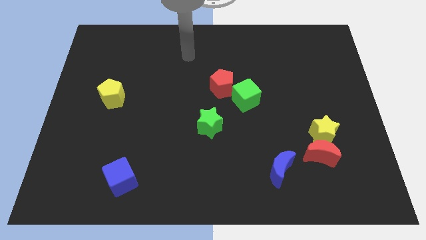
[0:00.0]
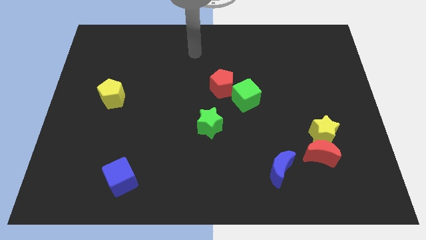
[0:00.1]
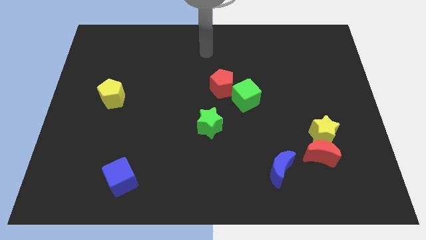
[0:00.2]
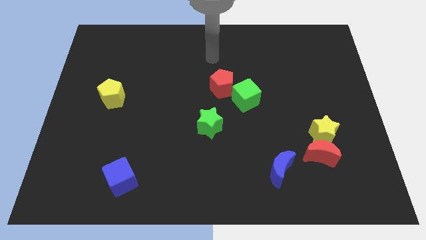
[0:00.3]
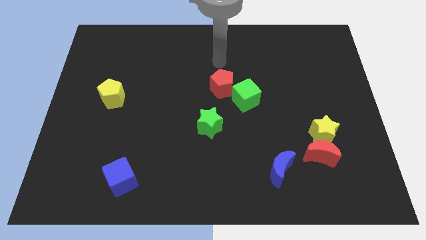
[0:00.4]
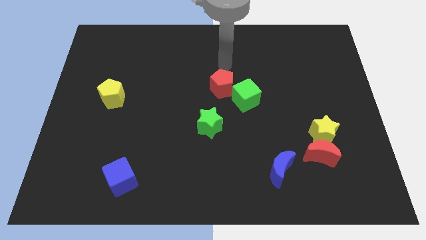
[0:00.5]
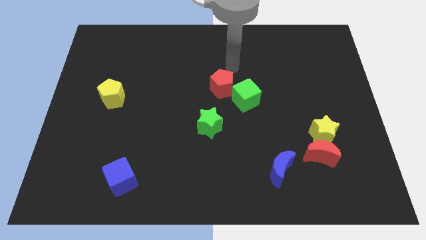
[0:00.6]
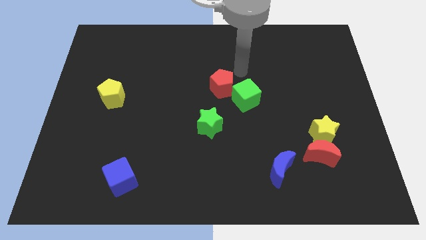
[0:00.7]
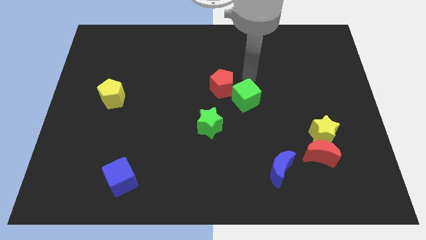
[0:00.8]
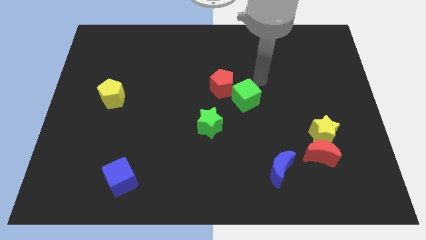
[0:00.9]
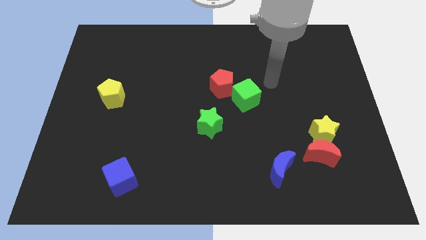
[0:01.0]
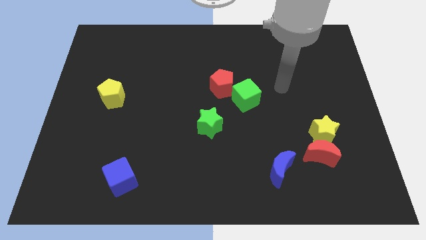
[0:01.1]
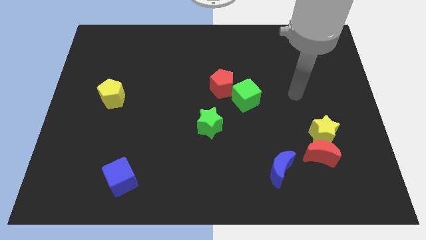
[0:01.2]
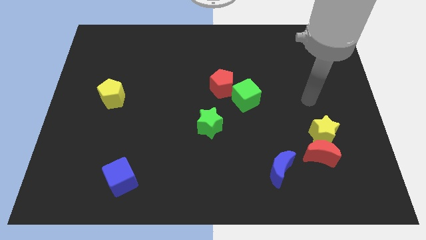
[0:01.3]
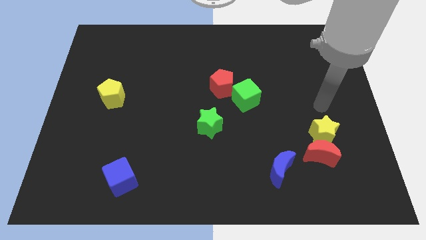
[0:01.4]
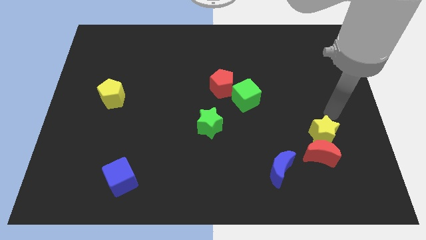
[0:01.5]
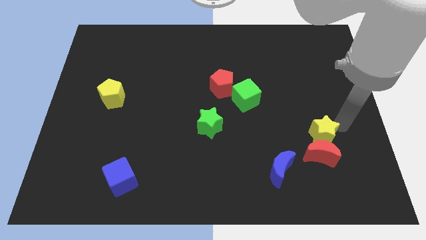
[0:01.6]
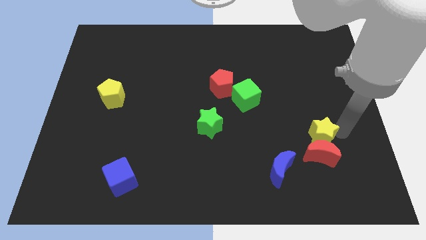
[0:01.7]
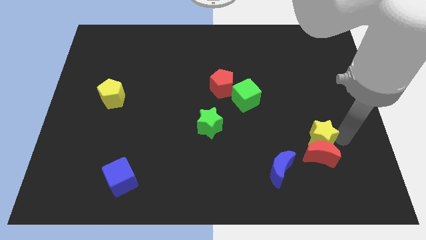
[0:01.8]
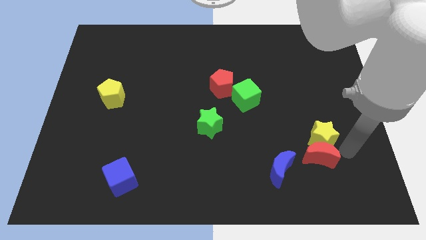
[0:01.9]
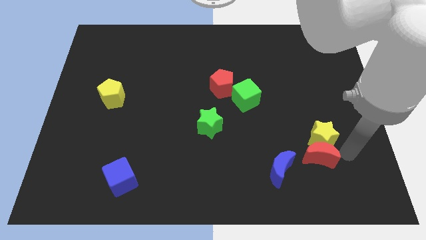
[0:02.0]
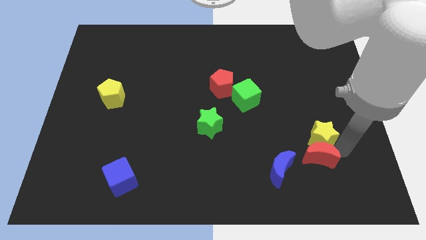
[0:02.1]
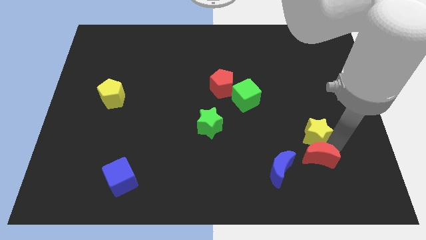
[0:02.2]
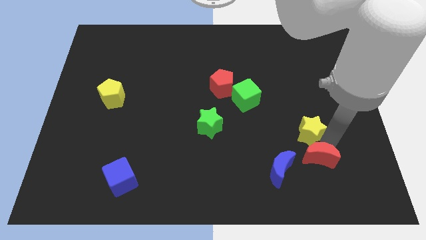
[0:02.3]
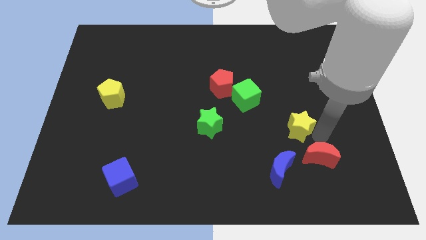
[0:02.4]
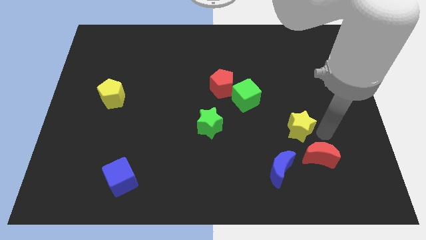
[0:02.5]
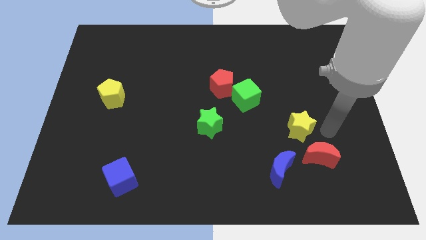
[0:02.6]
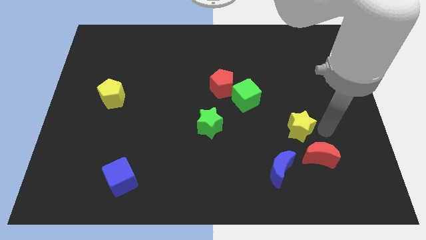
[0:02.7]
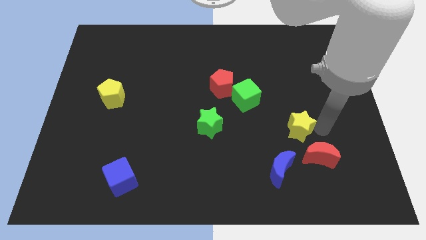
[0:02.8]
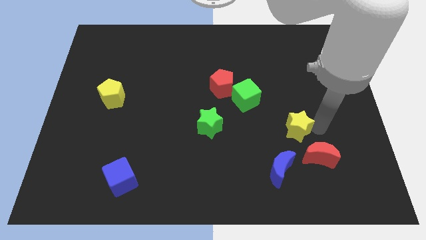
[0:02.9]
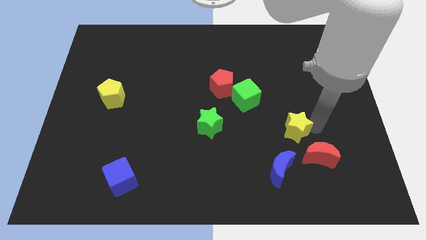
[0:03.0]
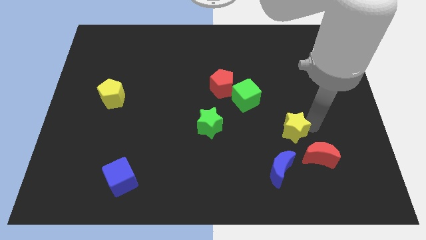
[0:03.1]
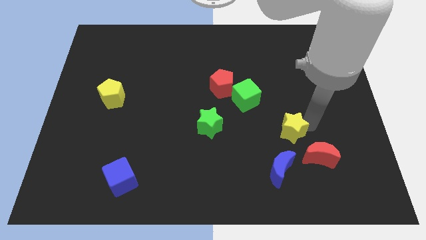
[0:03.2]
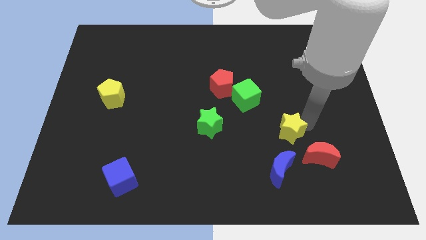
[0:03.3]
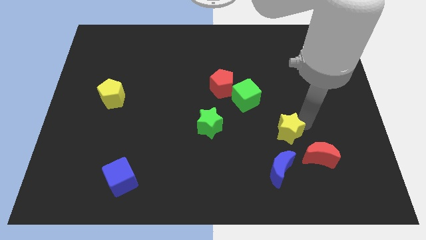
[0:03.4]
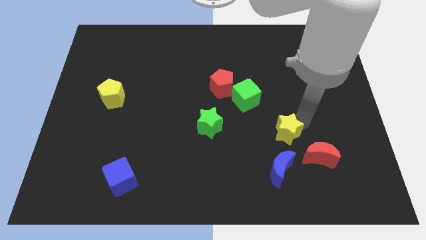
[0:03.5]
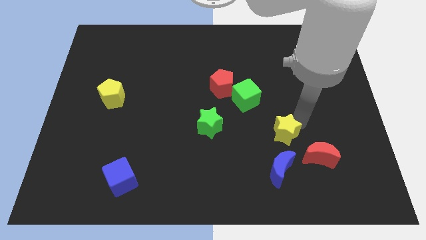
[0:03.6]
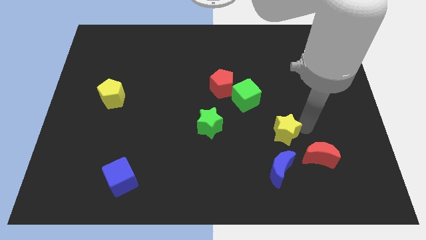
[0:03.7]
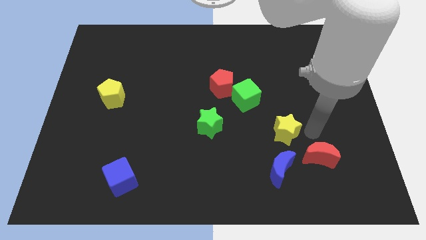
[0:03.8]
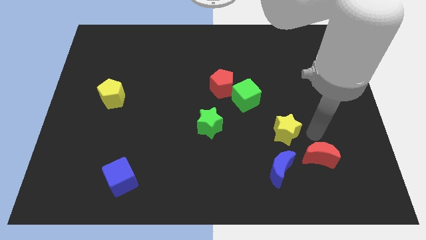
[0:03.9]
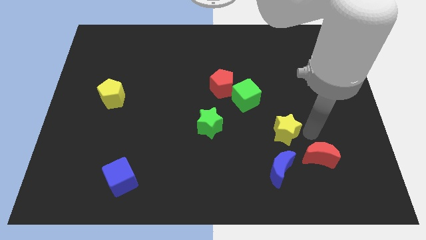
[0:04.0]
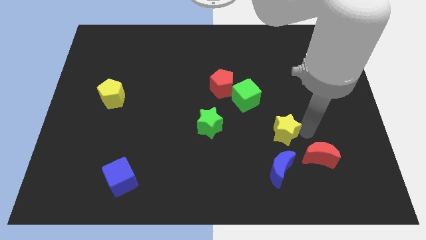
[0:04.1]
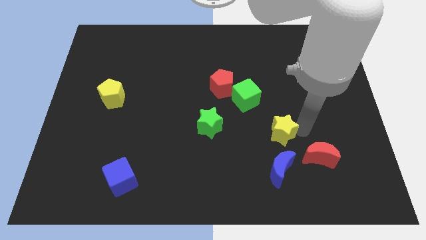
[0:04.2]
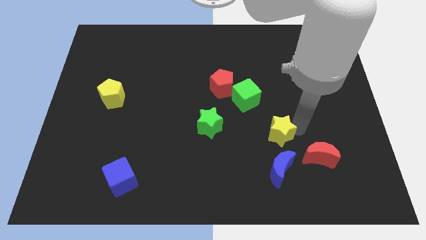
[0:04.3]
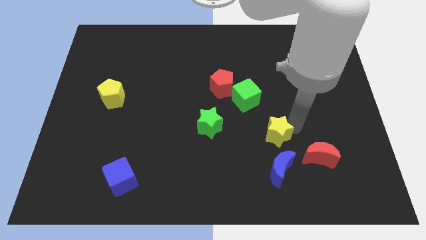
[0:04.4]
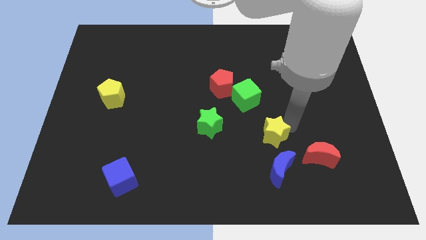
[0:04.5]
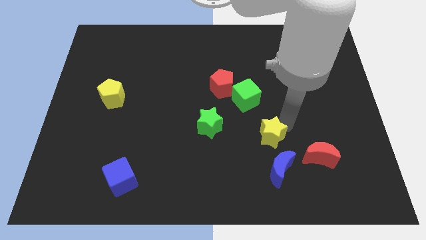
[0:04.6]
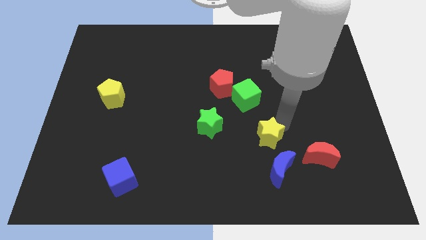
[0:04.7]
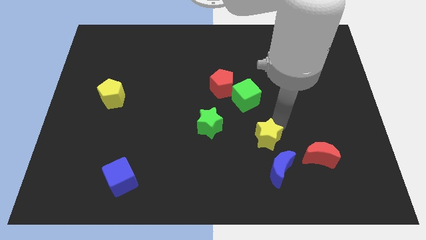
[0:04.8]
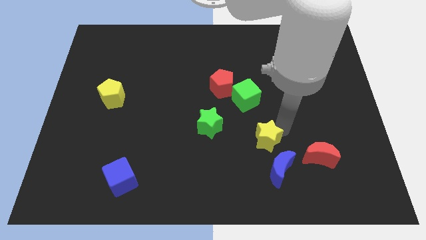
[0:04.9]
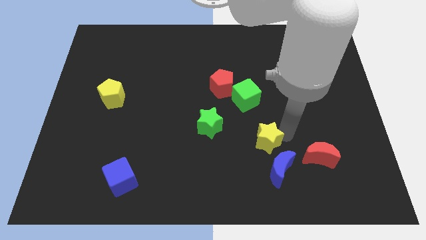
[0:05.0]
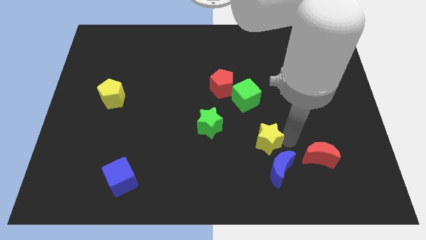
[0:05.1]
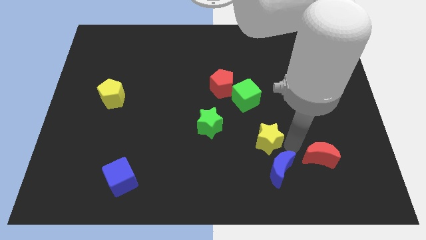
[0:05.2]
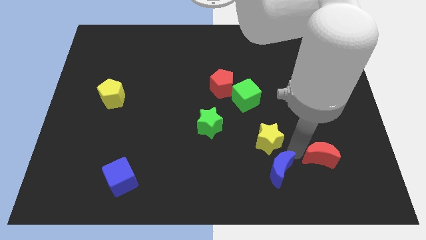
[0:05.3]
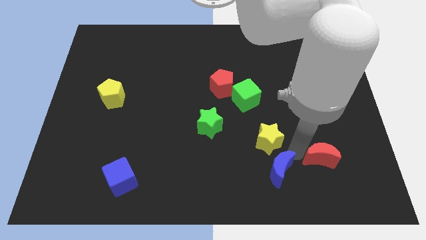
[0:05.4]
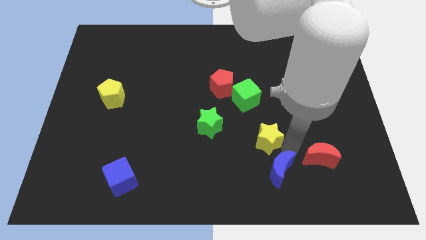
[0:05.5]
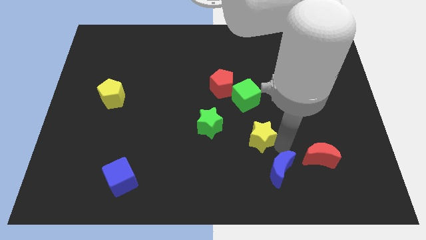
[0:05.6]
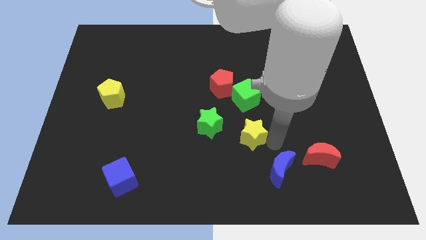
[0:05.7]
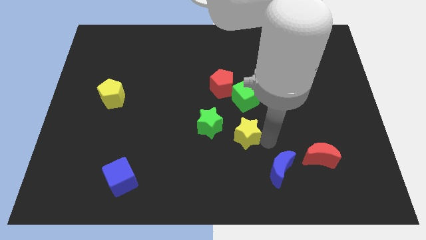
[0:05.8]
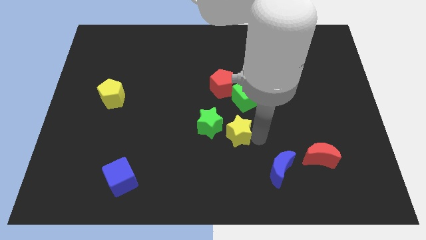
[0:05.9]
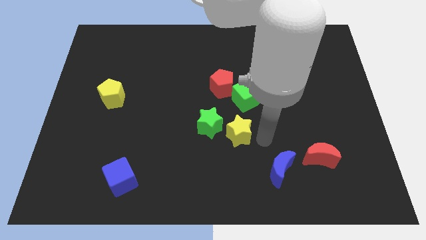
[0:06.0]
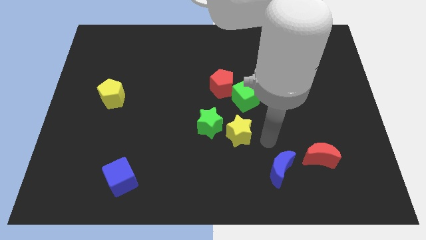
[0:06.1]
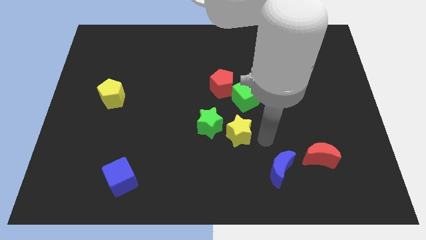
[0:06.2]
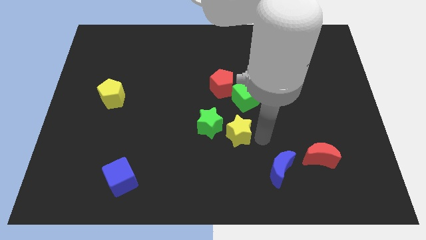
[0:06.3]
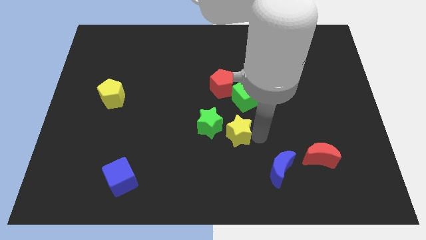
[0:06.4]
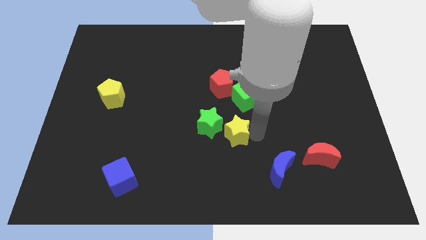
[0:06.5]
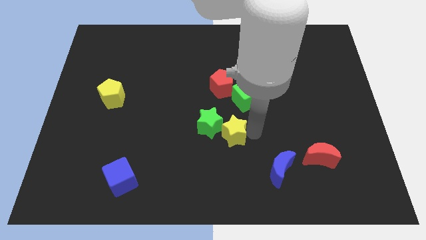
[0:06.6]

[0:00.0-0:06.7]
slide the yellow star close to the green star
